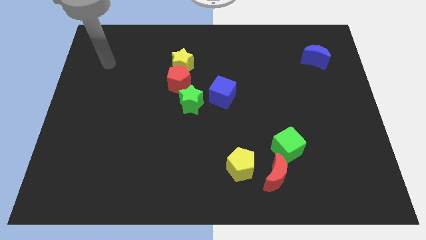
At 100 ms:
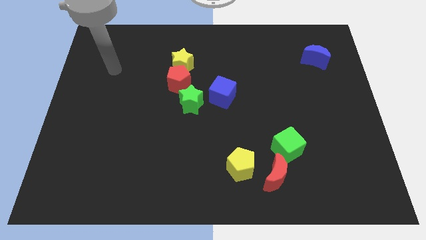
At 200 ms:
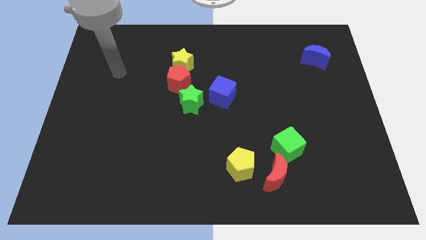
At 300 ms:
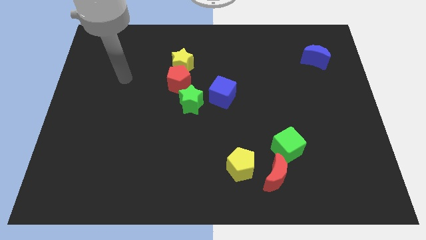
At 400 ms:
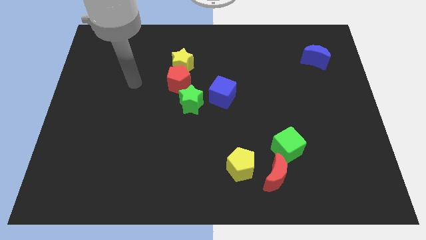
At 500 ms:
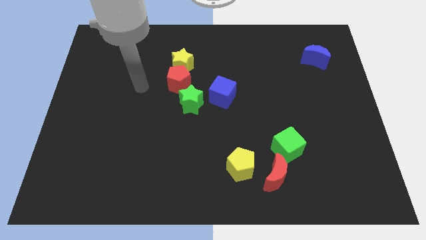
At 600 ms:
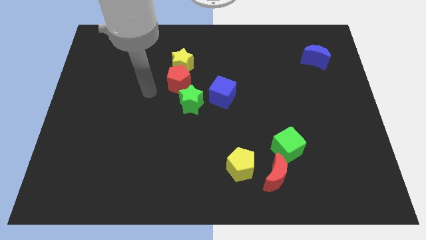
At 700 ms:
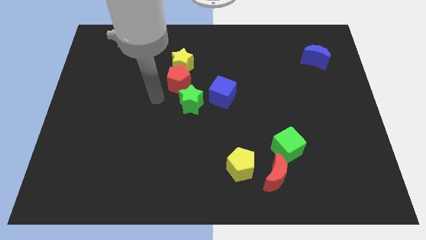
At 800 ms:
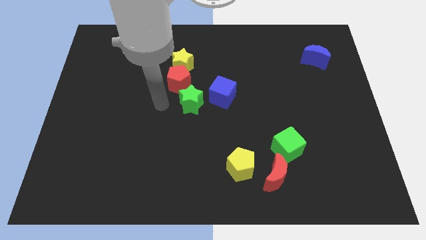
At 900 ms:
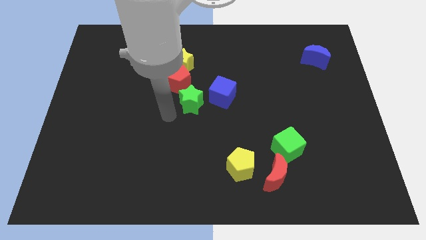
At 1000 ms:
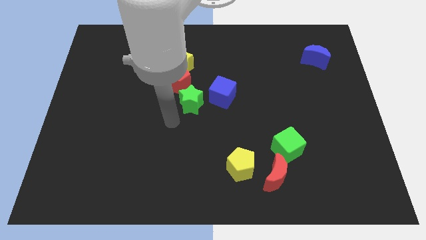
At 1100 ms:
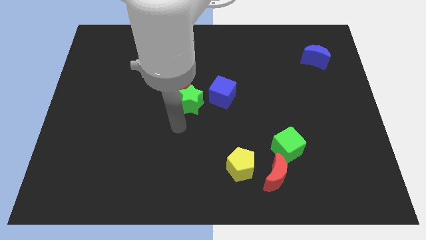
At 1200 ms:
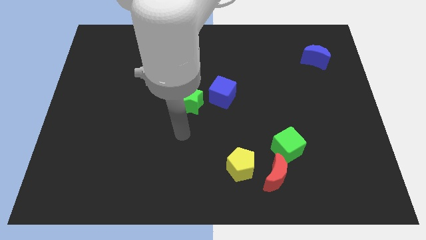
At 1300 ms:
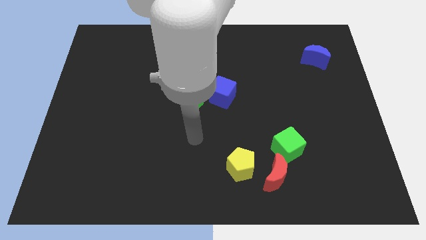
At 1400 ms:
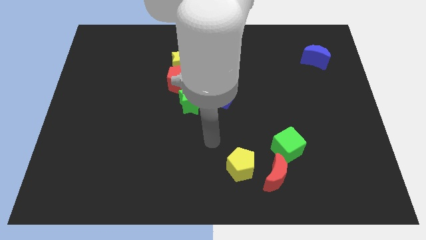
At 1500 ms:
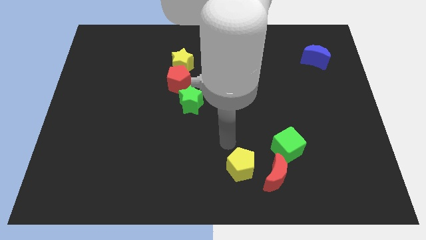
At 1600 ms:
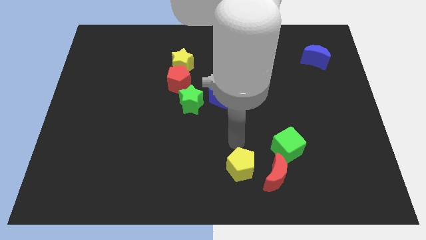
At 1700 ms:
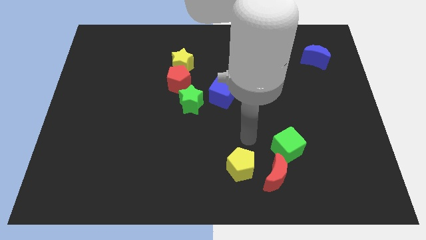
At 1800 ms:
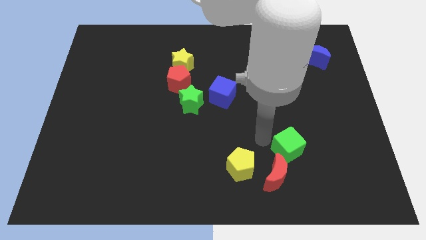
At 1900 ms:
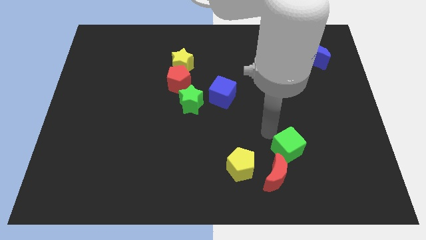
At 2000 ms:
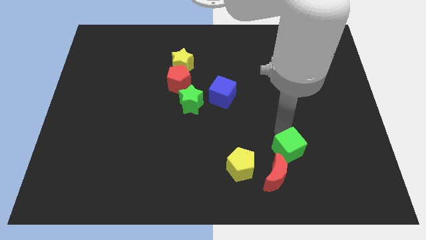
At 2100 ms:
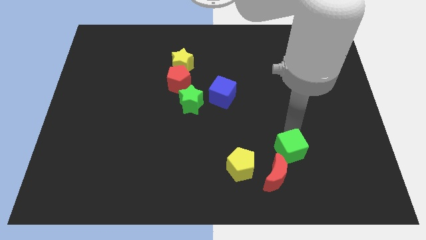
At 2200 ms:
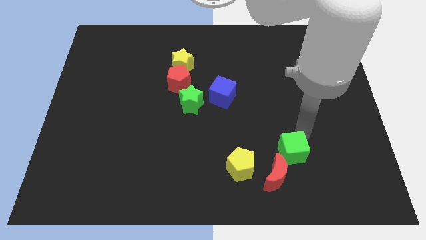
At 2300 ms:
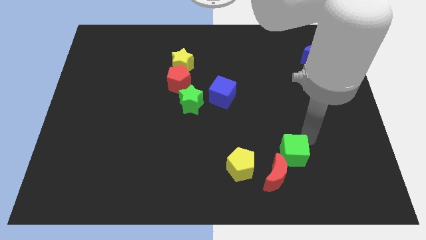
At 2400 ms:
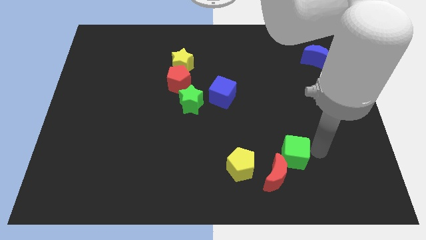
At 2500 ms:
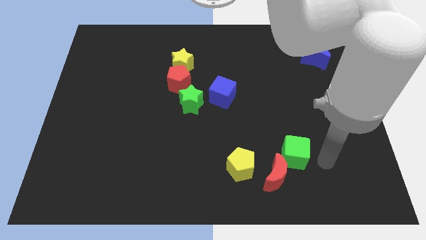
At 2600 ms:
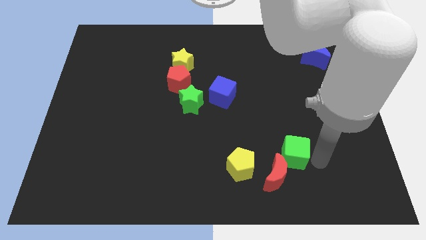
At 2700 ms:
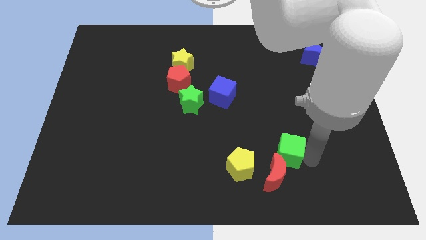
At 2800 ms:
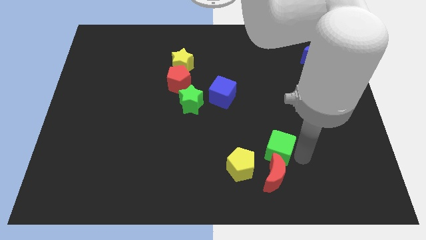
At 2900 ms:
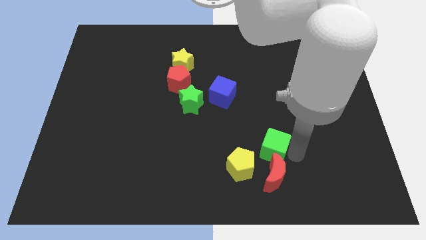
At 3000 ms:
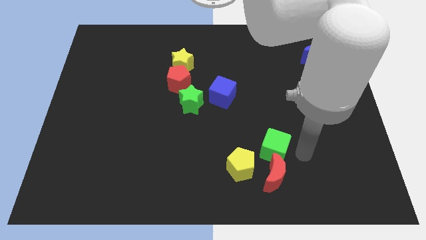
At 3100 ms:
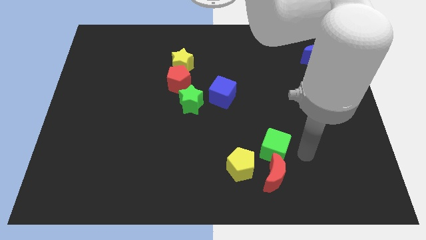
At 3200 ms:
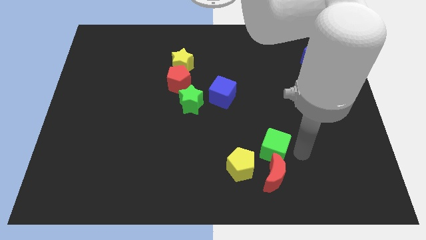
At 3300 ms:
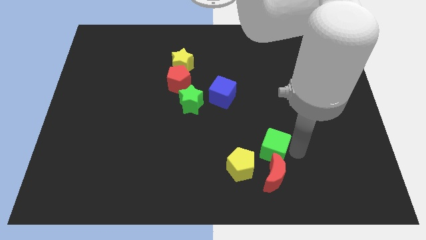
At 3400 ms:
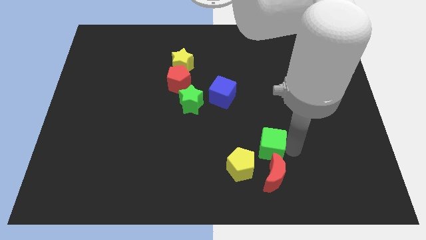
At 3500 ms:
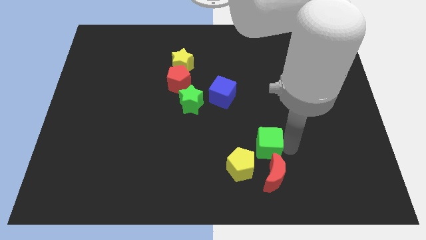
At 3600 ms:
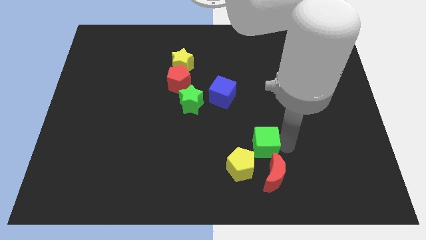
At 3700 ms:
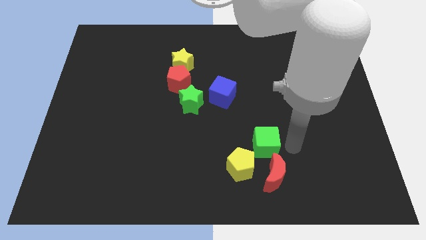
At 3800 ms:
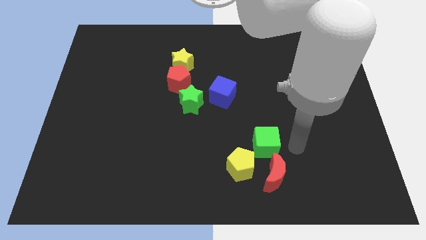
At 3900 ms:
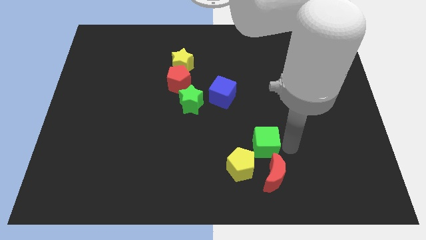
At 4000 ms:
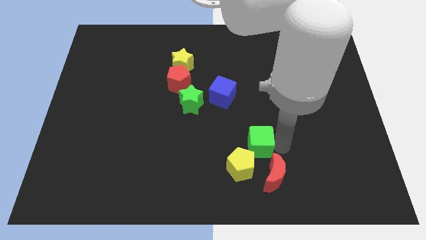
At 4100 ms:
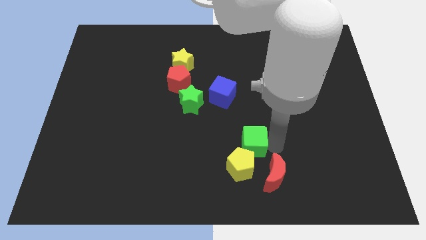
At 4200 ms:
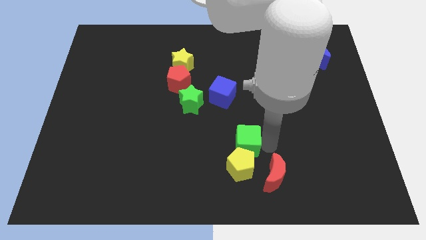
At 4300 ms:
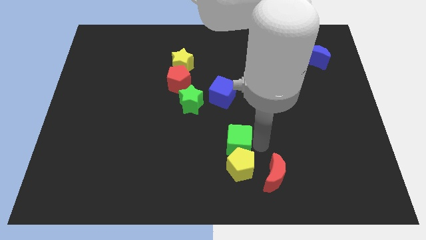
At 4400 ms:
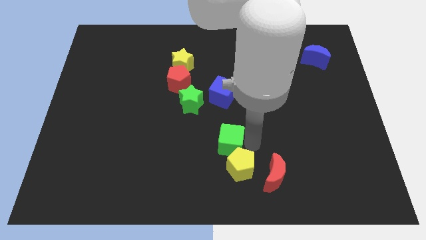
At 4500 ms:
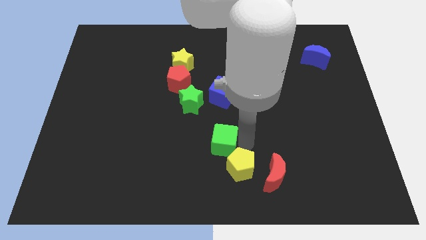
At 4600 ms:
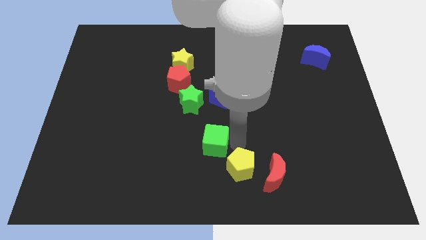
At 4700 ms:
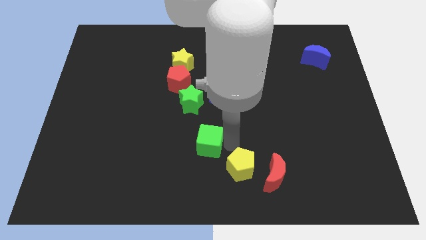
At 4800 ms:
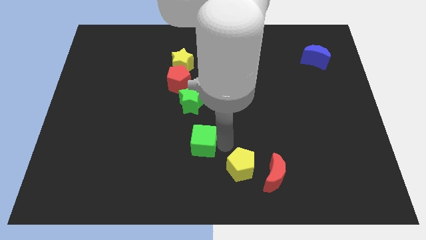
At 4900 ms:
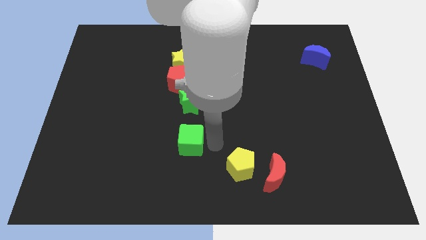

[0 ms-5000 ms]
push the green cube left

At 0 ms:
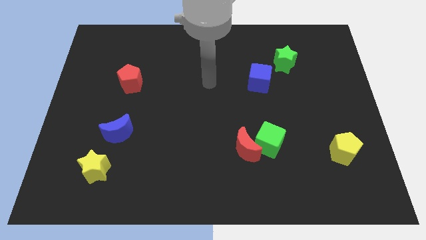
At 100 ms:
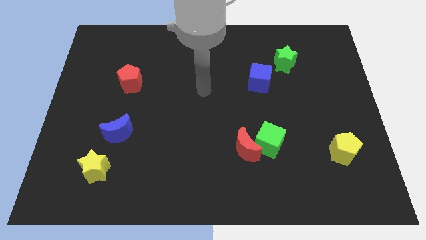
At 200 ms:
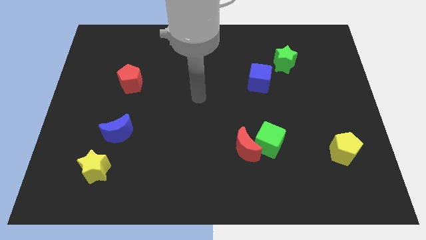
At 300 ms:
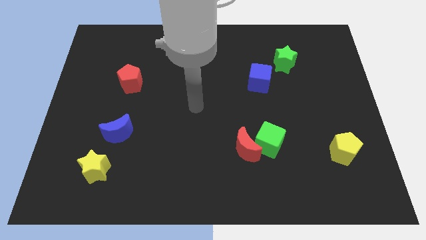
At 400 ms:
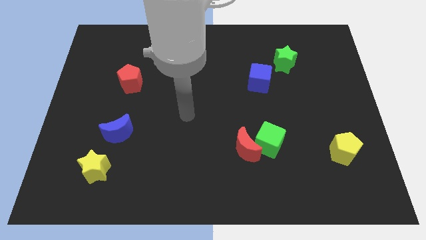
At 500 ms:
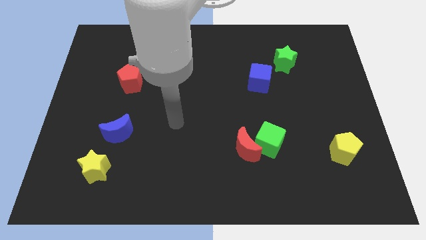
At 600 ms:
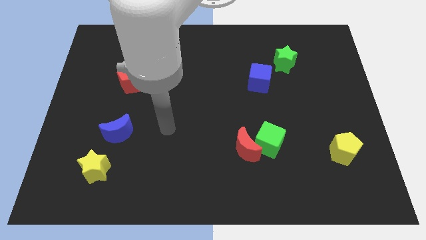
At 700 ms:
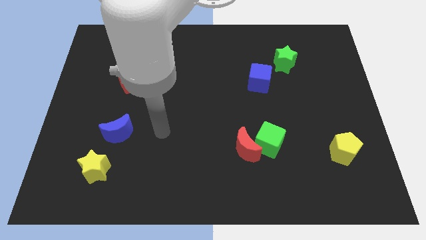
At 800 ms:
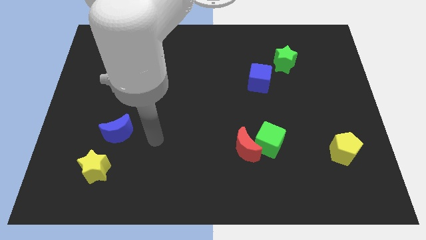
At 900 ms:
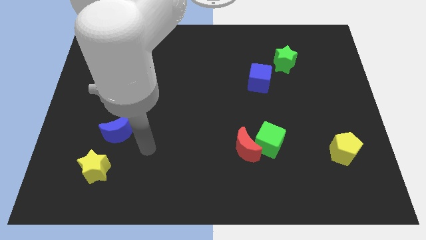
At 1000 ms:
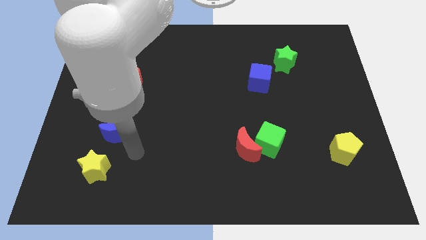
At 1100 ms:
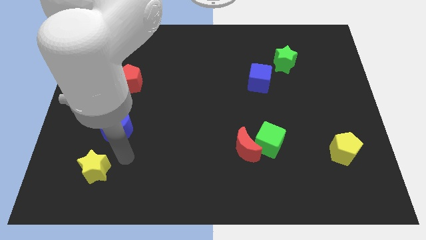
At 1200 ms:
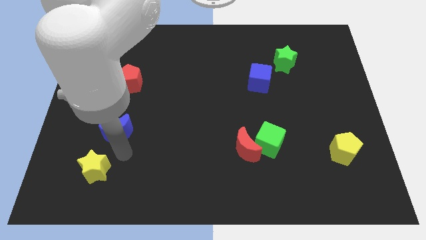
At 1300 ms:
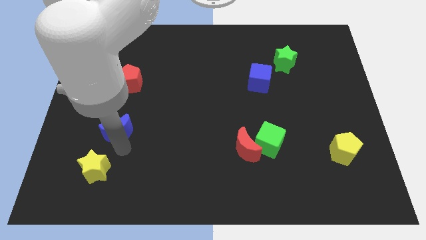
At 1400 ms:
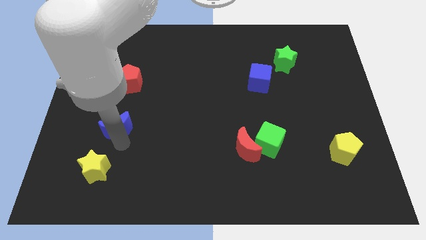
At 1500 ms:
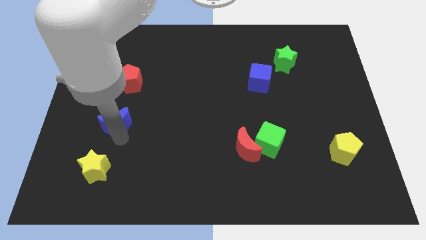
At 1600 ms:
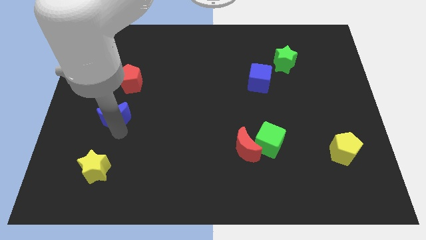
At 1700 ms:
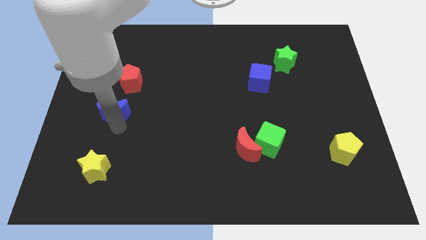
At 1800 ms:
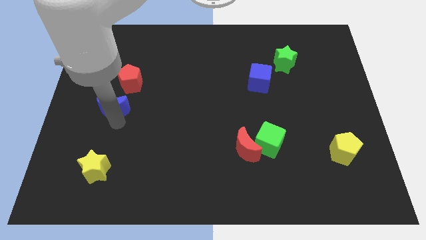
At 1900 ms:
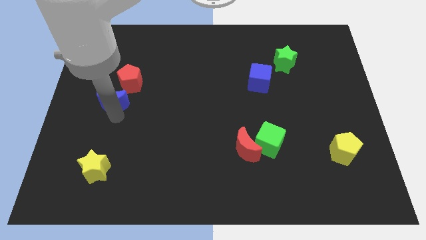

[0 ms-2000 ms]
slide the blue moon upwards a little bit

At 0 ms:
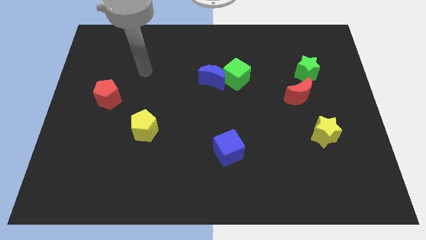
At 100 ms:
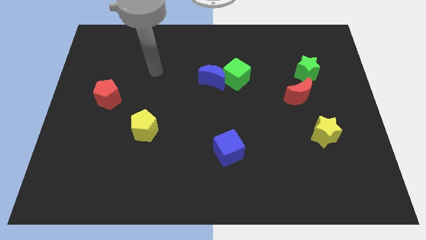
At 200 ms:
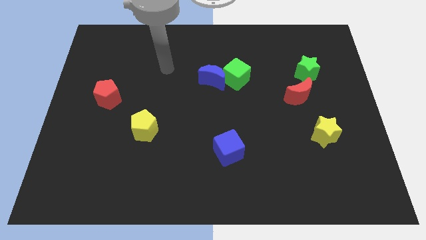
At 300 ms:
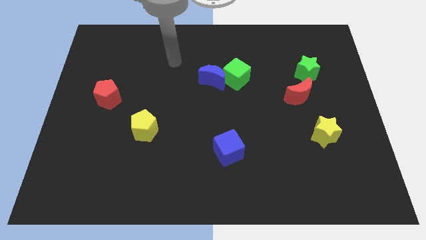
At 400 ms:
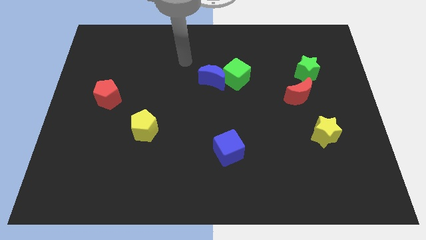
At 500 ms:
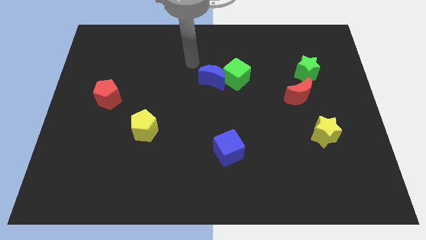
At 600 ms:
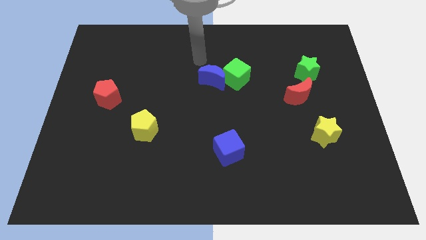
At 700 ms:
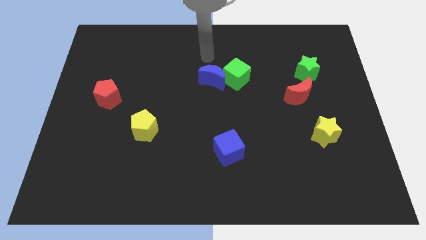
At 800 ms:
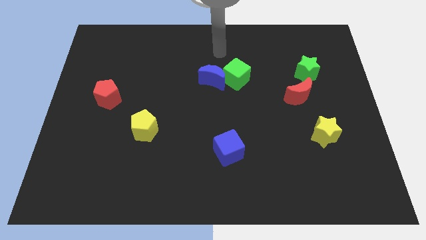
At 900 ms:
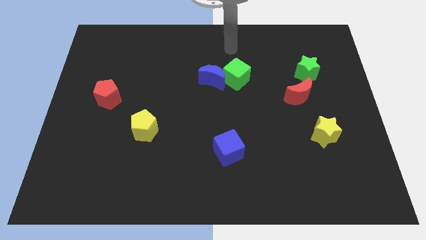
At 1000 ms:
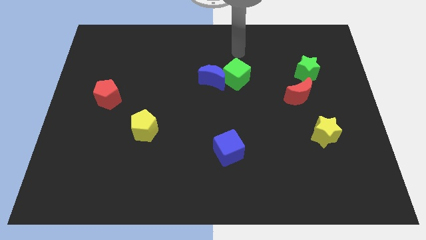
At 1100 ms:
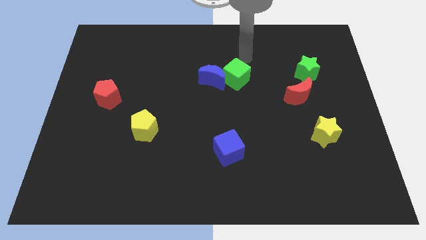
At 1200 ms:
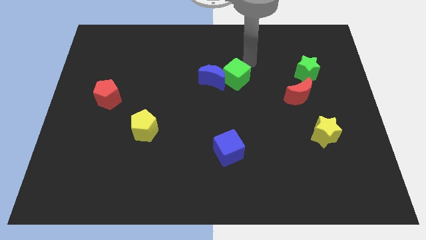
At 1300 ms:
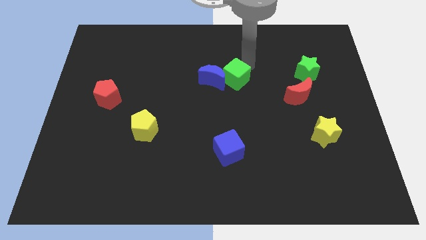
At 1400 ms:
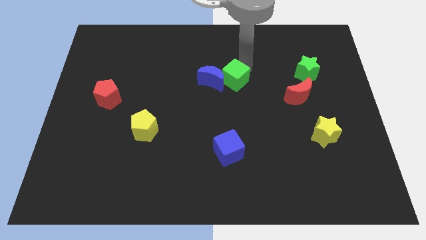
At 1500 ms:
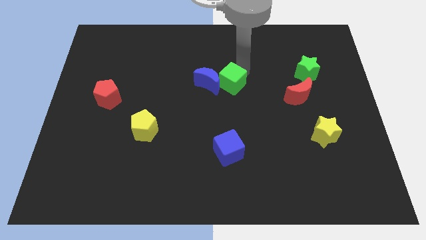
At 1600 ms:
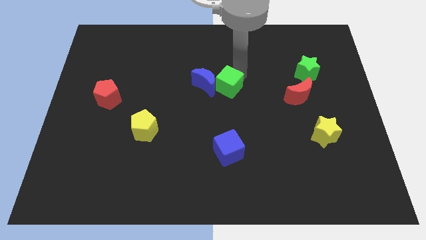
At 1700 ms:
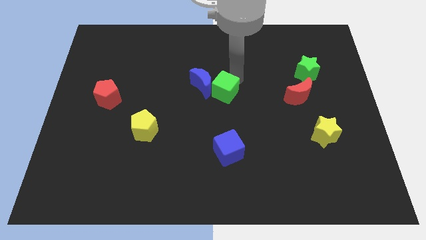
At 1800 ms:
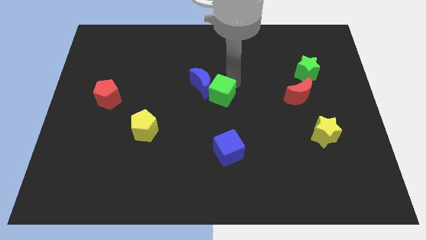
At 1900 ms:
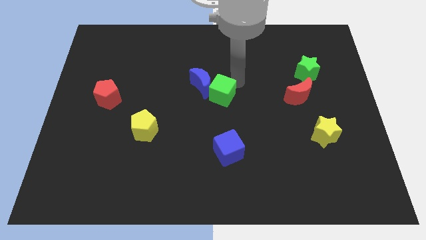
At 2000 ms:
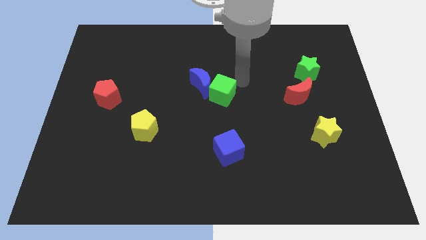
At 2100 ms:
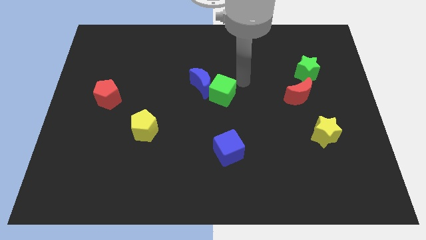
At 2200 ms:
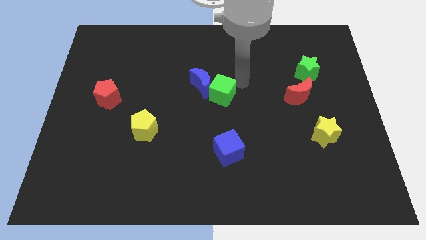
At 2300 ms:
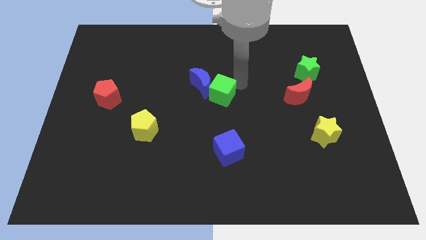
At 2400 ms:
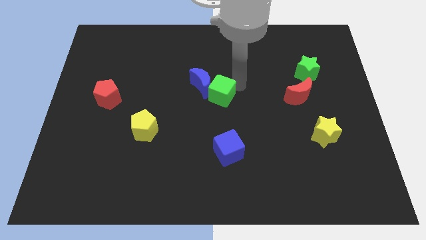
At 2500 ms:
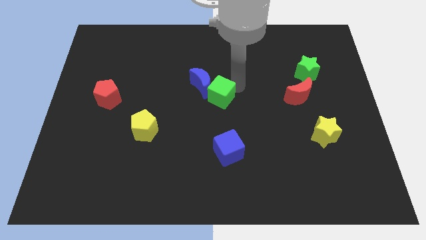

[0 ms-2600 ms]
slide the green cube downwards and then to the left a little bit
